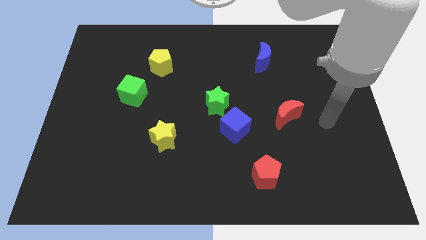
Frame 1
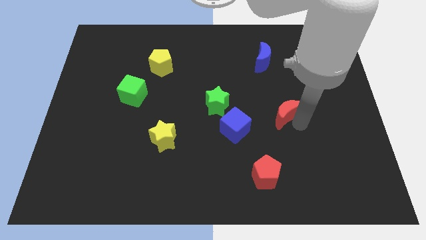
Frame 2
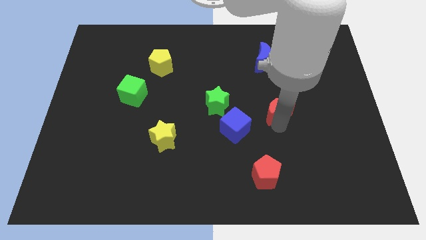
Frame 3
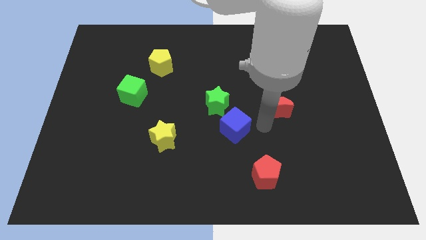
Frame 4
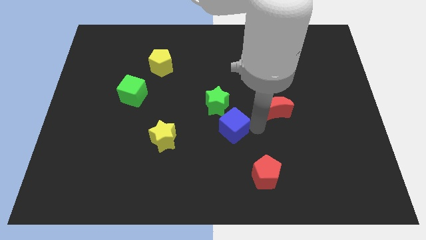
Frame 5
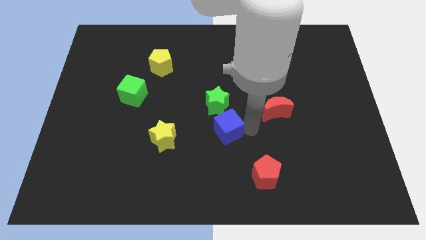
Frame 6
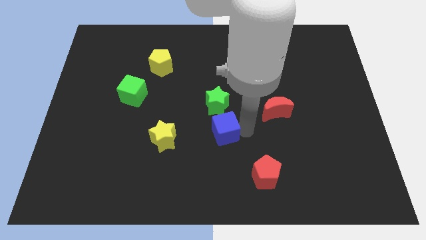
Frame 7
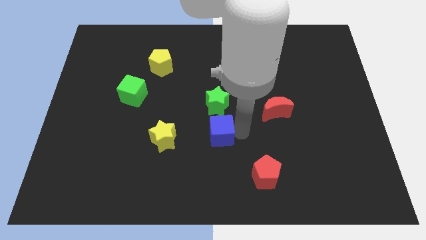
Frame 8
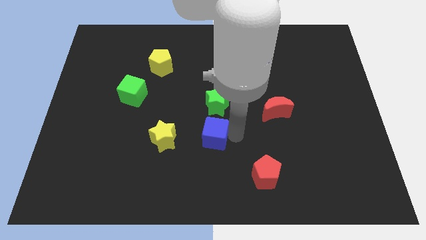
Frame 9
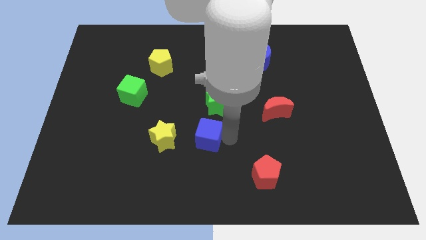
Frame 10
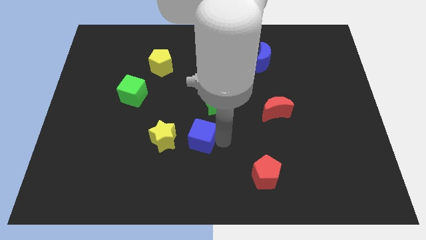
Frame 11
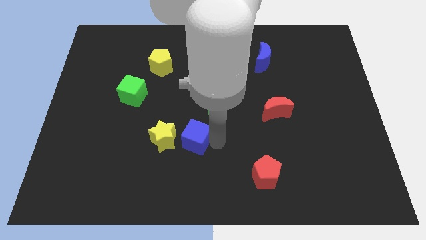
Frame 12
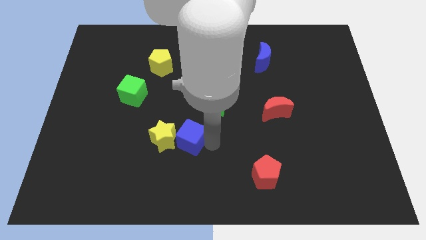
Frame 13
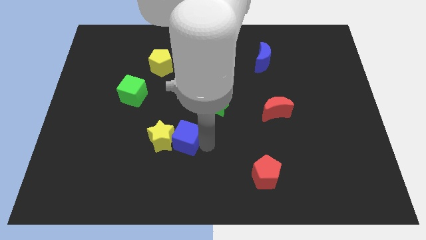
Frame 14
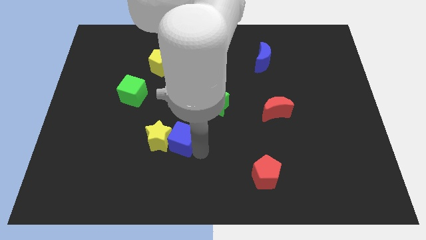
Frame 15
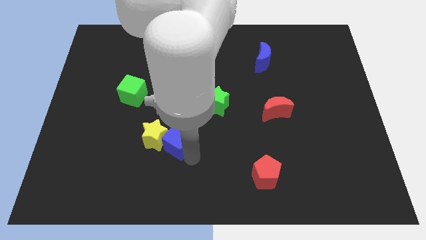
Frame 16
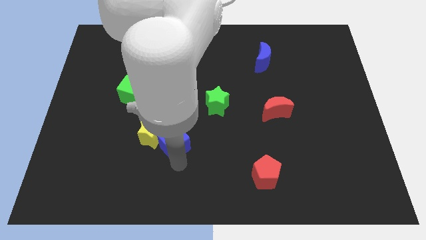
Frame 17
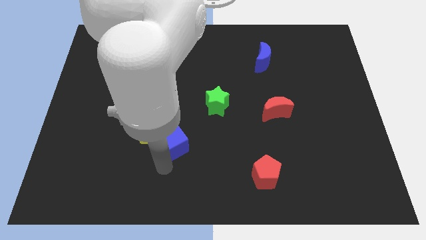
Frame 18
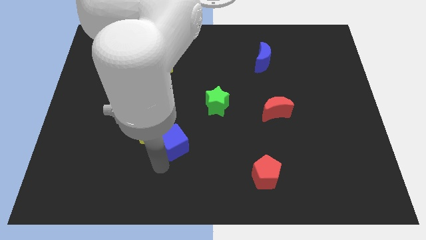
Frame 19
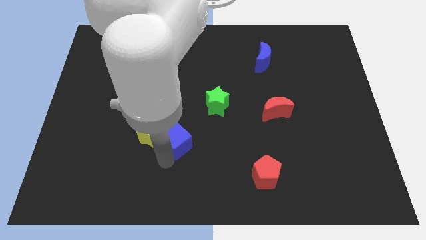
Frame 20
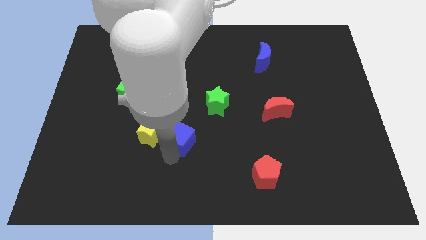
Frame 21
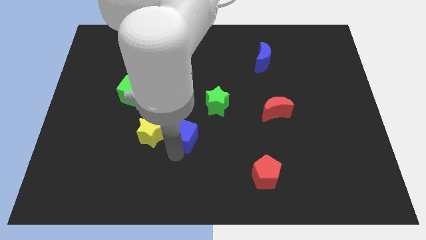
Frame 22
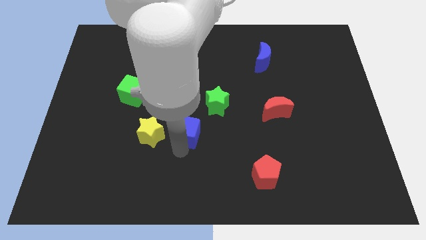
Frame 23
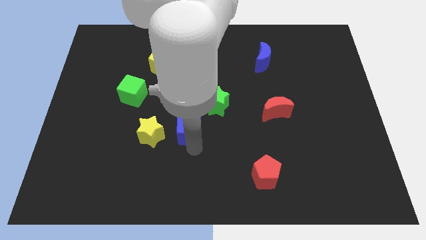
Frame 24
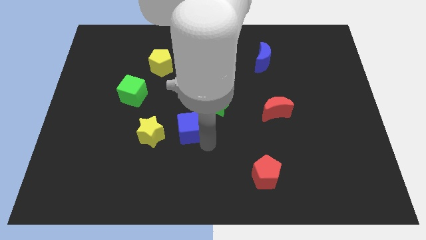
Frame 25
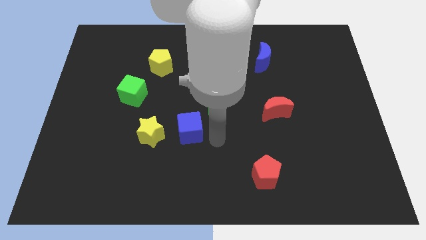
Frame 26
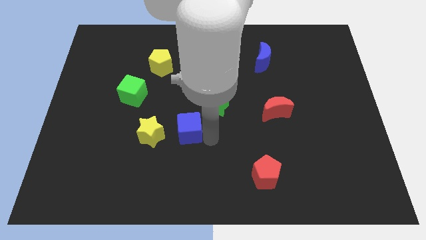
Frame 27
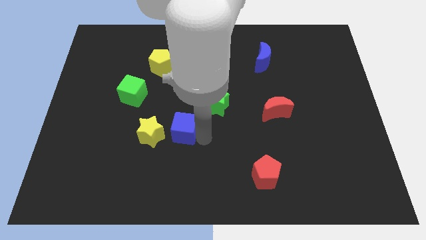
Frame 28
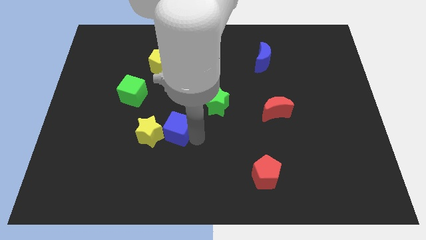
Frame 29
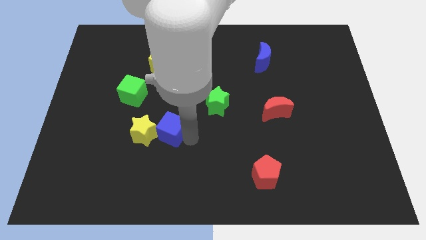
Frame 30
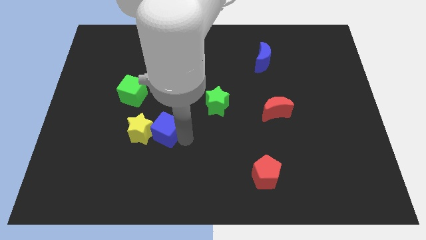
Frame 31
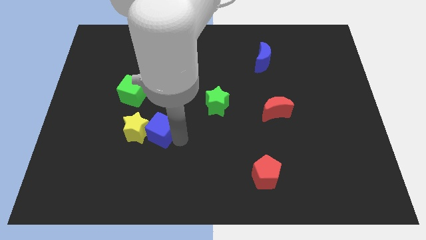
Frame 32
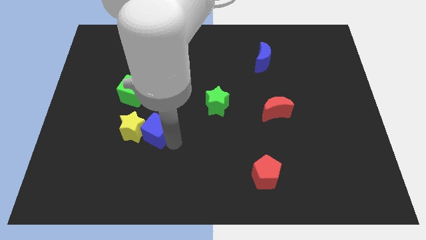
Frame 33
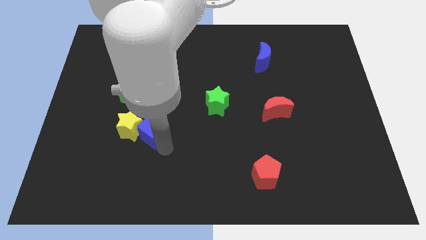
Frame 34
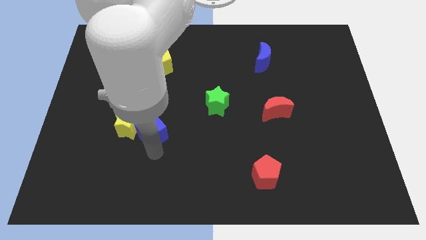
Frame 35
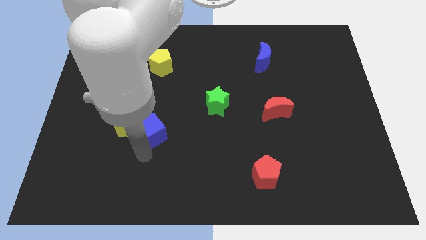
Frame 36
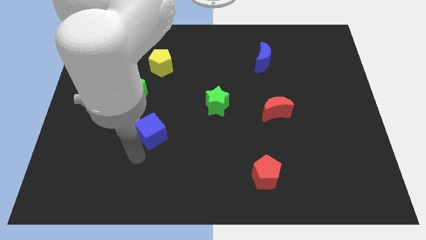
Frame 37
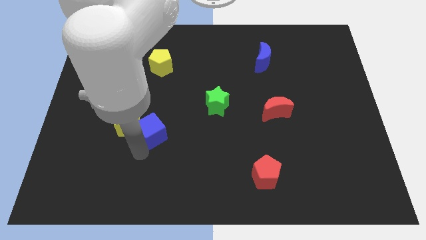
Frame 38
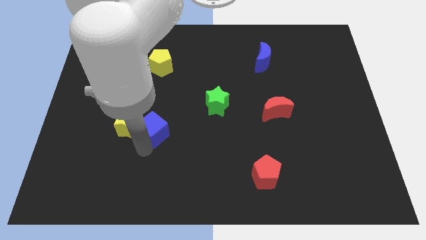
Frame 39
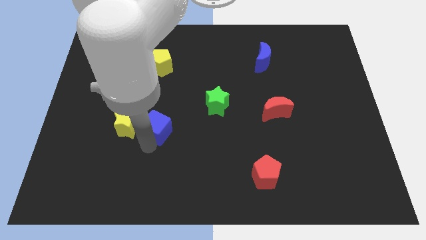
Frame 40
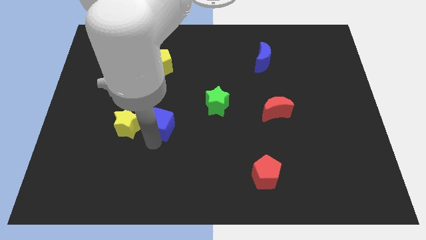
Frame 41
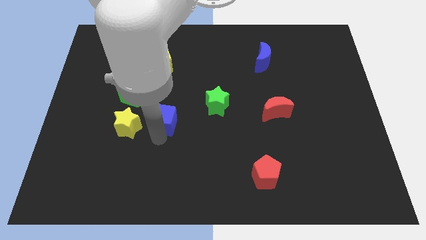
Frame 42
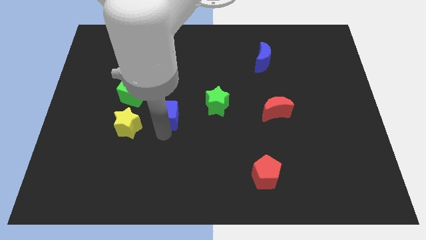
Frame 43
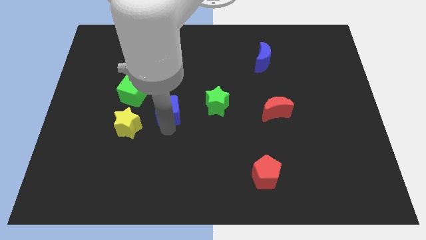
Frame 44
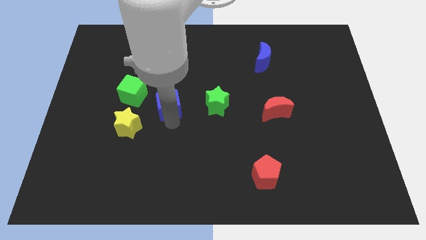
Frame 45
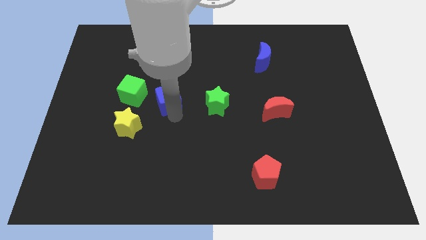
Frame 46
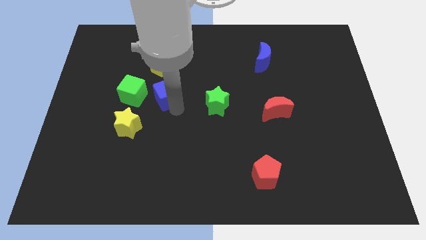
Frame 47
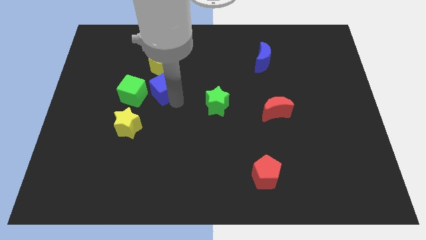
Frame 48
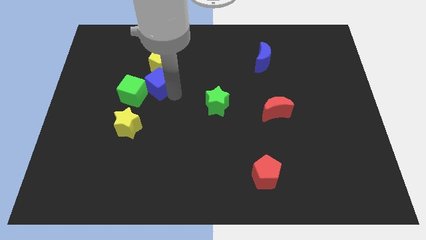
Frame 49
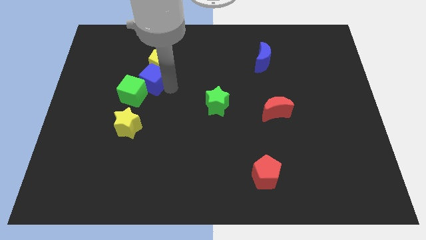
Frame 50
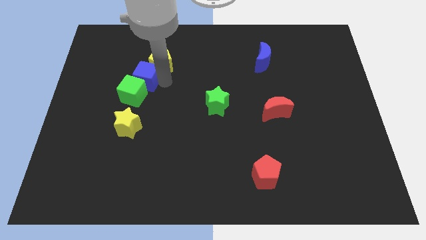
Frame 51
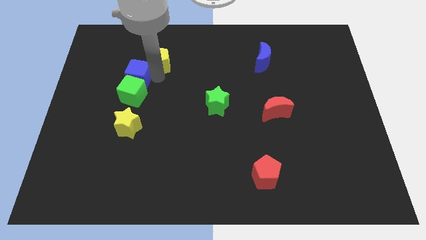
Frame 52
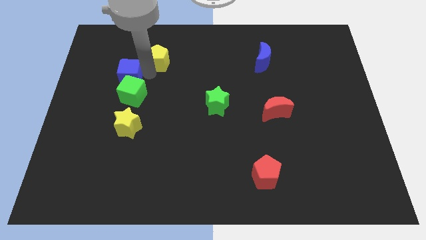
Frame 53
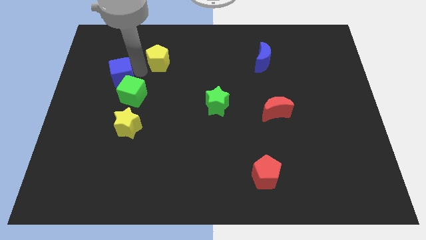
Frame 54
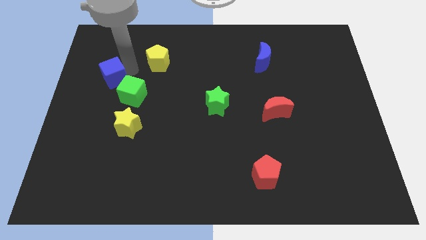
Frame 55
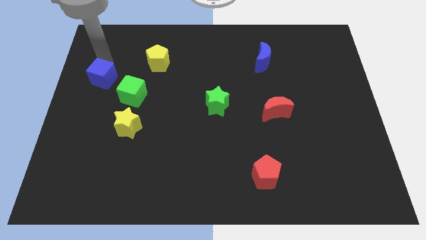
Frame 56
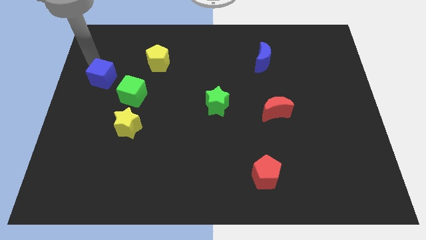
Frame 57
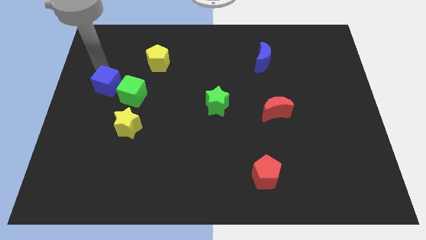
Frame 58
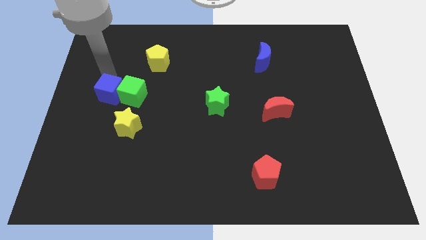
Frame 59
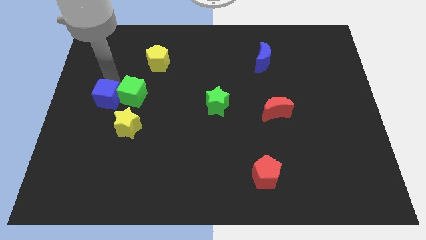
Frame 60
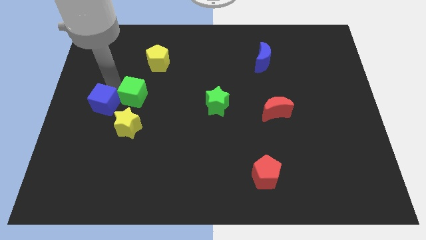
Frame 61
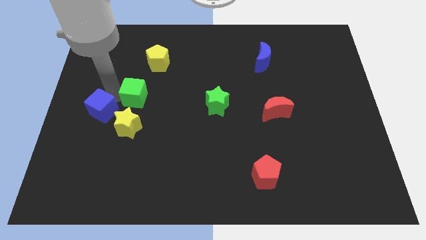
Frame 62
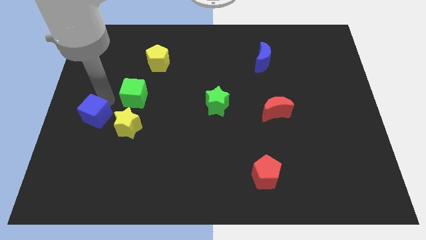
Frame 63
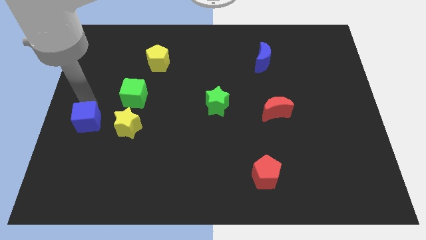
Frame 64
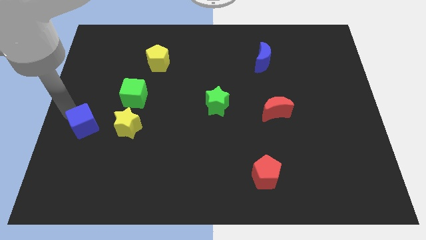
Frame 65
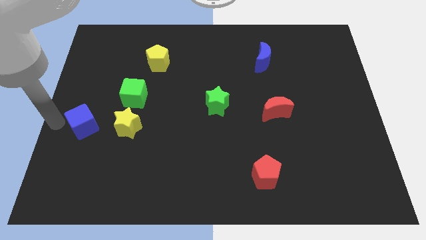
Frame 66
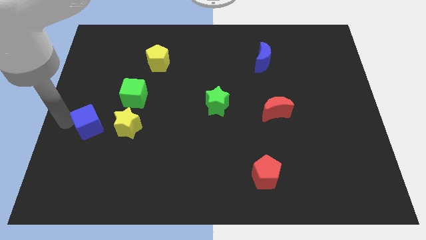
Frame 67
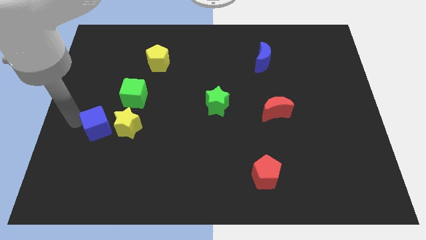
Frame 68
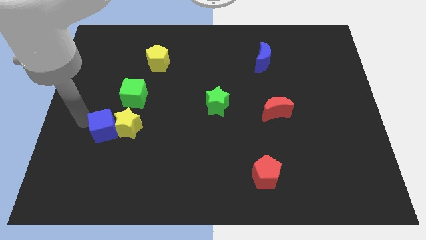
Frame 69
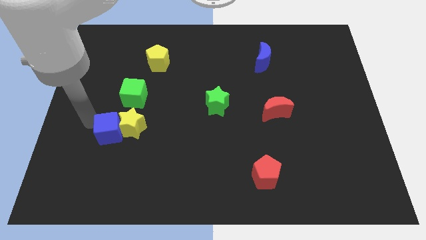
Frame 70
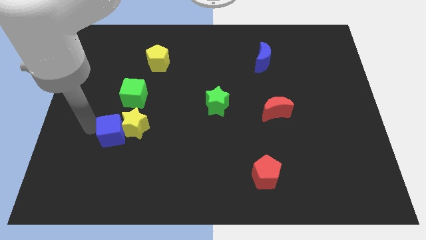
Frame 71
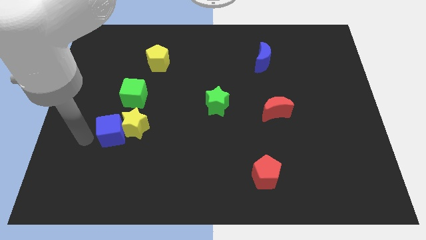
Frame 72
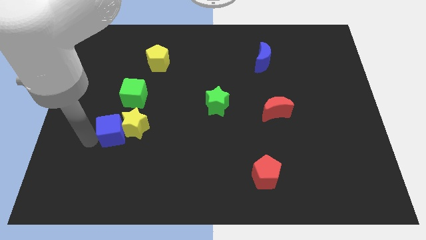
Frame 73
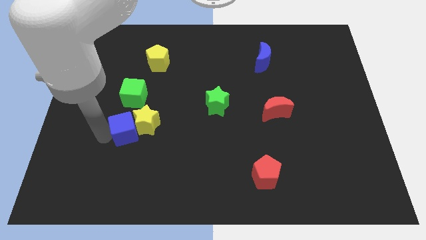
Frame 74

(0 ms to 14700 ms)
push the blue cube just left of the yellow star
